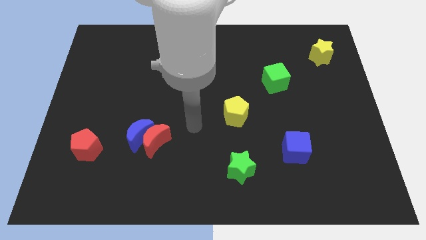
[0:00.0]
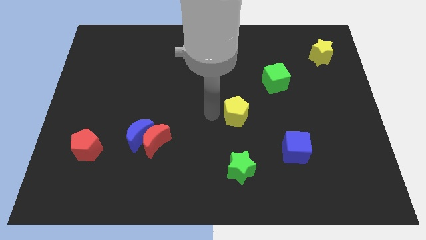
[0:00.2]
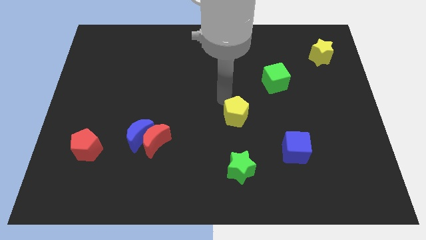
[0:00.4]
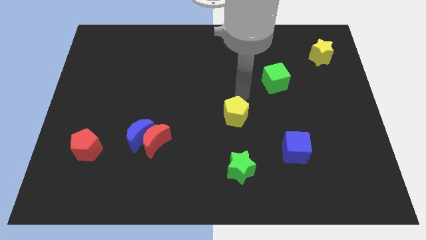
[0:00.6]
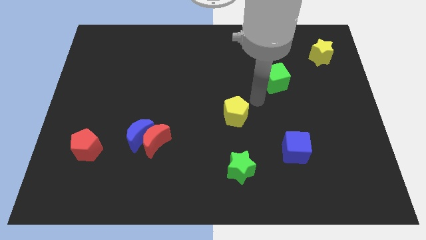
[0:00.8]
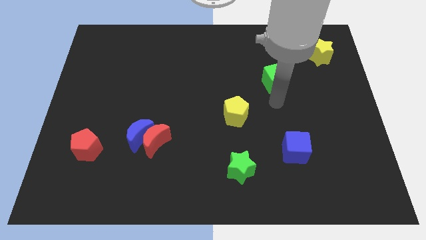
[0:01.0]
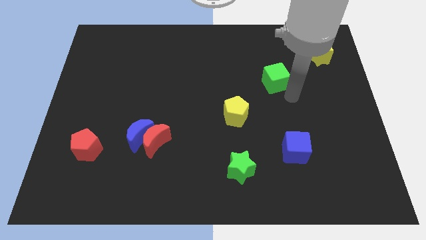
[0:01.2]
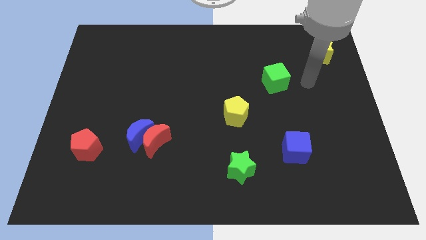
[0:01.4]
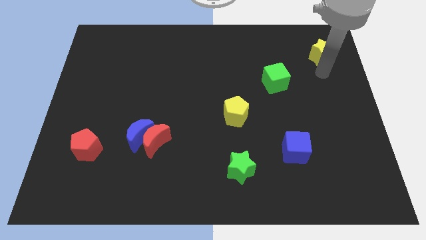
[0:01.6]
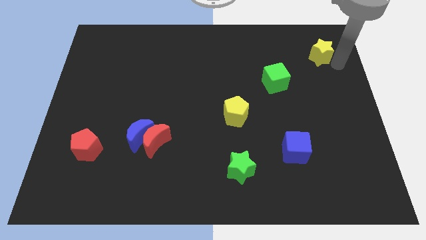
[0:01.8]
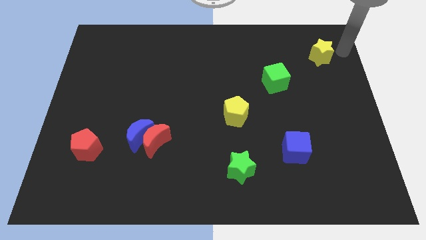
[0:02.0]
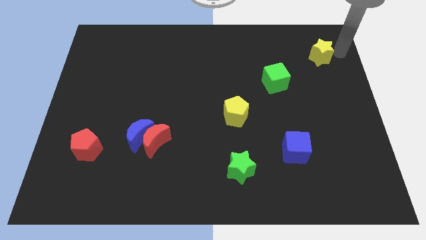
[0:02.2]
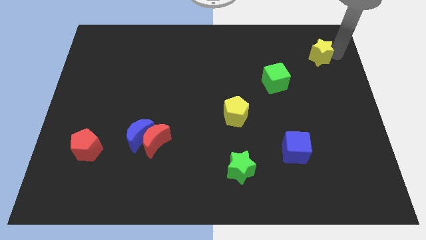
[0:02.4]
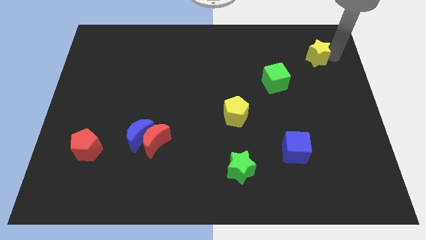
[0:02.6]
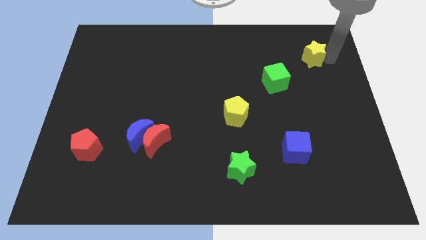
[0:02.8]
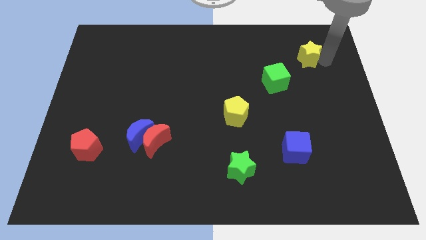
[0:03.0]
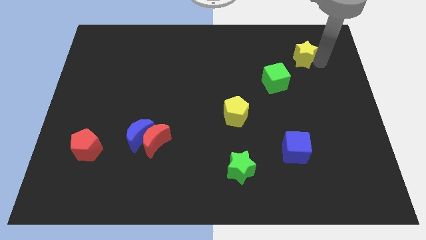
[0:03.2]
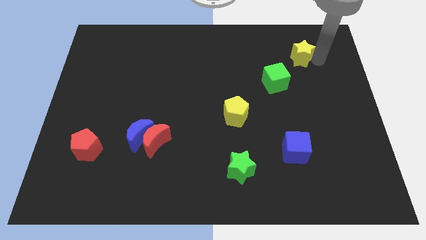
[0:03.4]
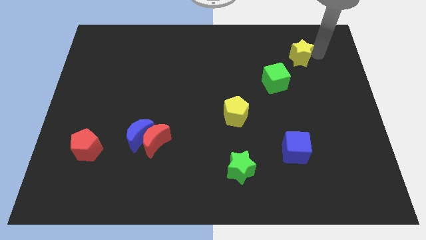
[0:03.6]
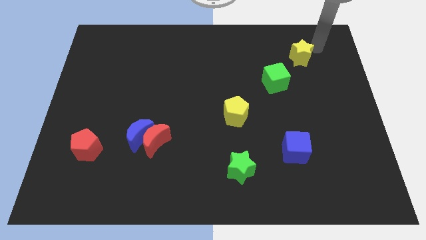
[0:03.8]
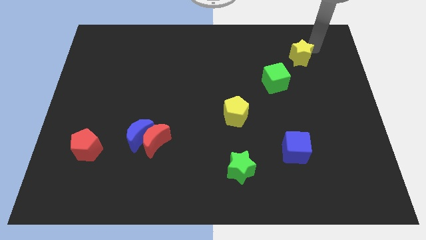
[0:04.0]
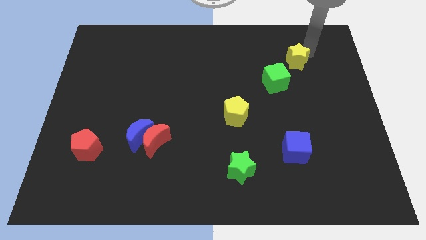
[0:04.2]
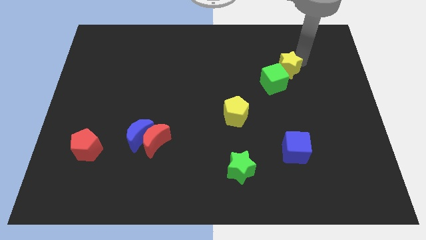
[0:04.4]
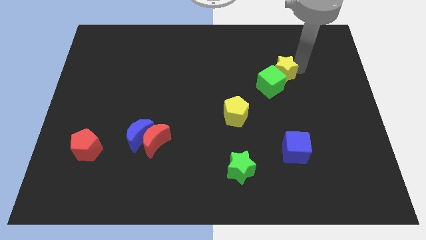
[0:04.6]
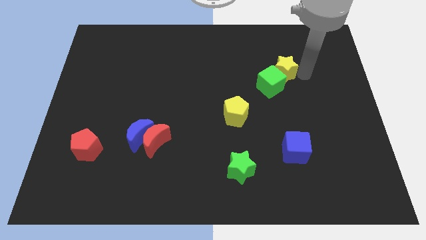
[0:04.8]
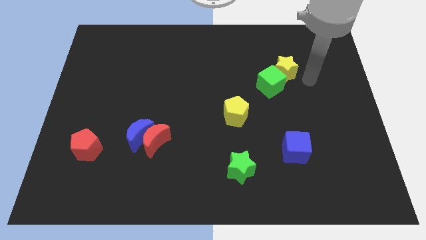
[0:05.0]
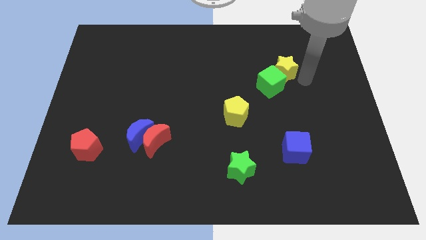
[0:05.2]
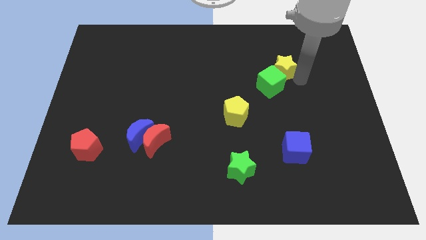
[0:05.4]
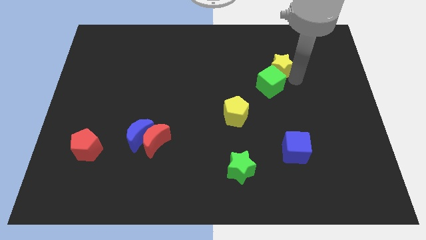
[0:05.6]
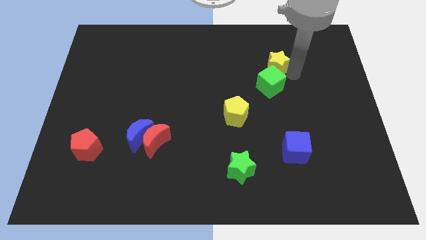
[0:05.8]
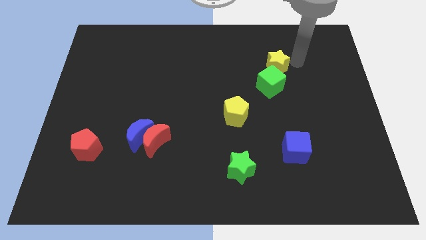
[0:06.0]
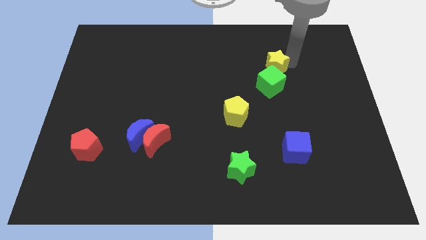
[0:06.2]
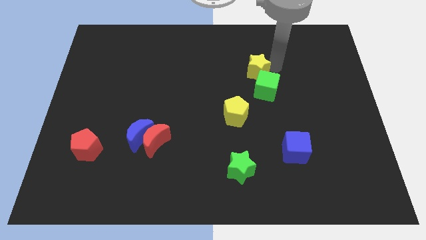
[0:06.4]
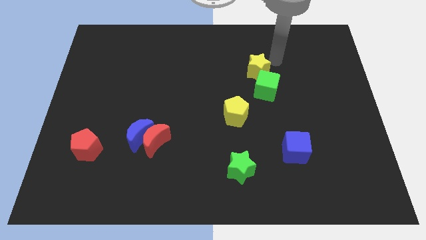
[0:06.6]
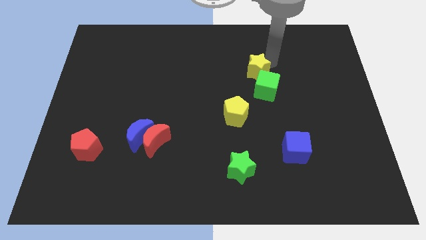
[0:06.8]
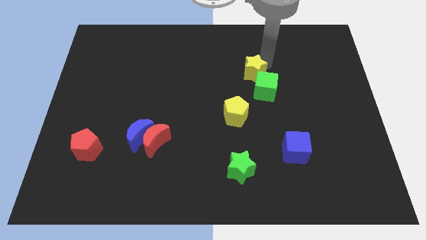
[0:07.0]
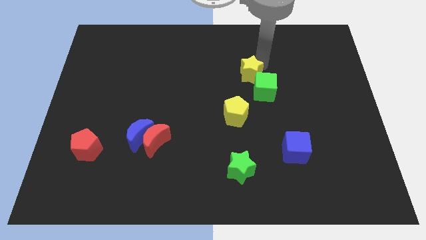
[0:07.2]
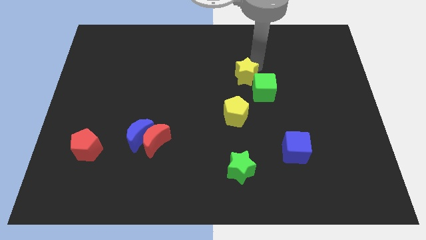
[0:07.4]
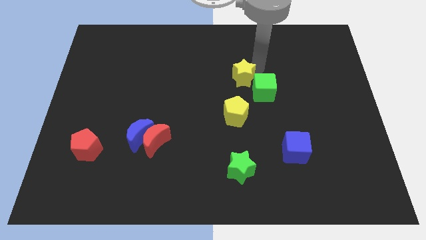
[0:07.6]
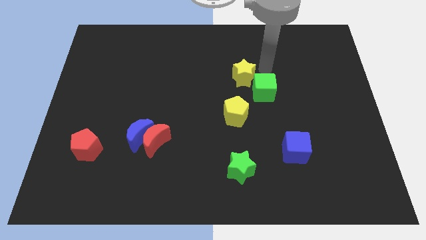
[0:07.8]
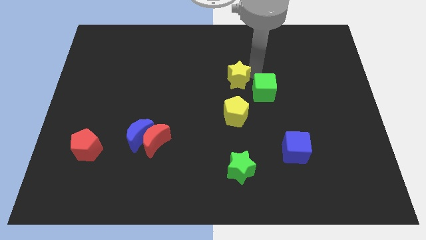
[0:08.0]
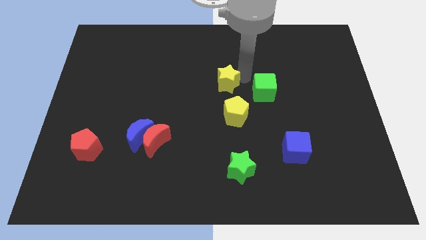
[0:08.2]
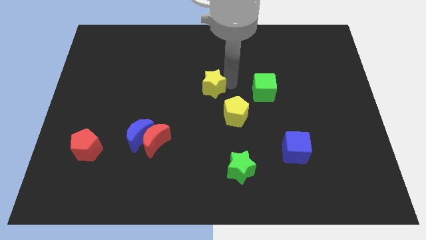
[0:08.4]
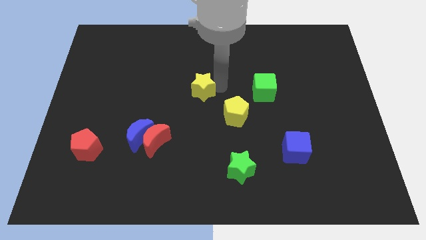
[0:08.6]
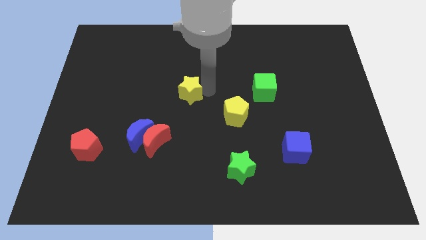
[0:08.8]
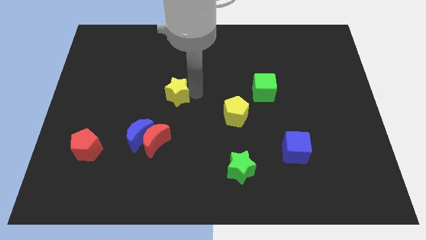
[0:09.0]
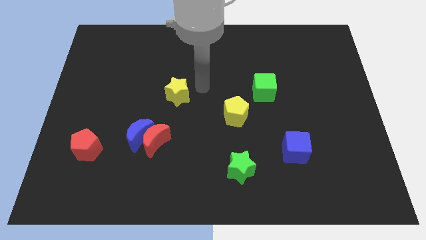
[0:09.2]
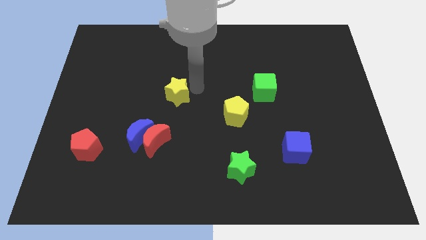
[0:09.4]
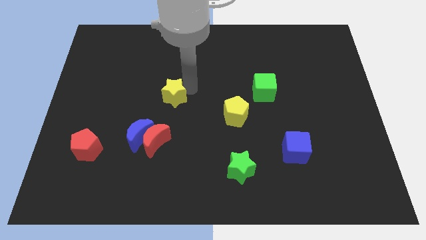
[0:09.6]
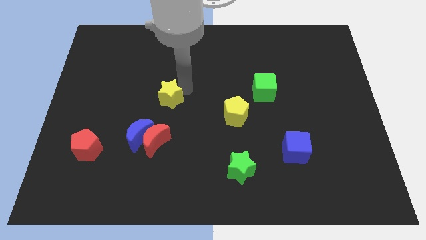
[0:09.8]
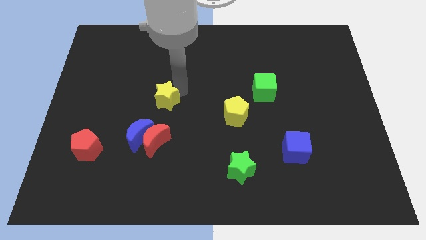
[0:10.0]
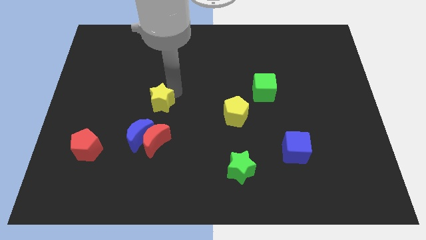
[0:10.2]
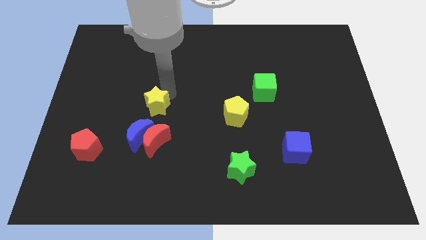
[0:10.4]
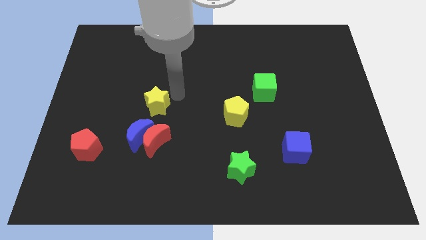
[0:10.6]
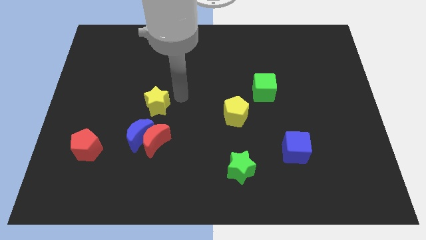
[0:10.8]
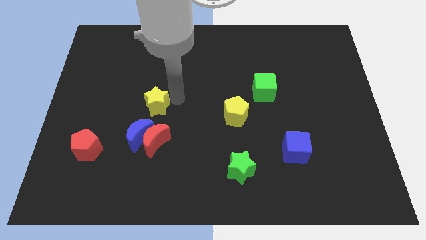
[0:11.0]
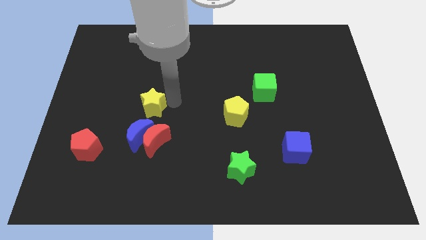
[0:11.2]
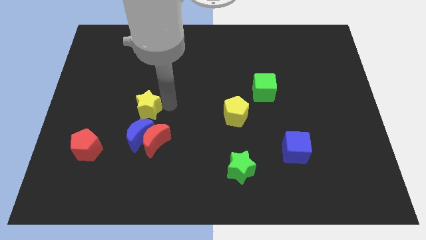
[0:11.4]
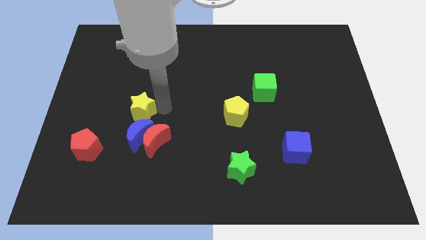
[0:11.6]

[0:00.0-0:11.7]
put the yellow star diagonally up and to the left of the blue moon

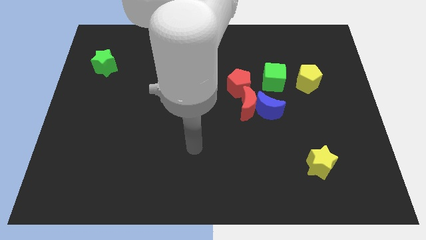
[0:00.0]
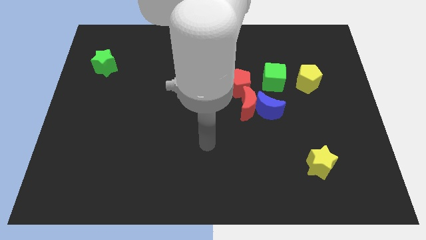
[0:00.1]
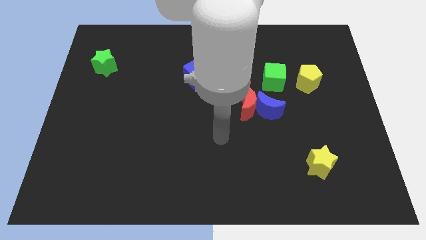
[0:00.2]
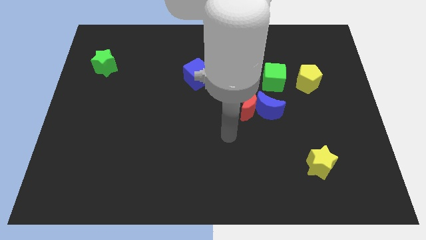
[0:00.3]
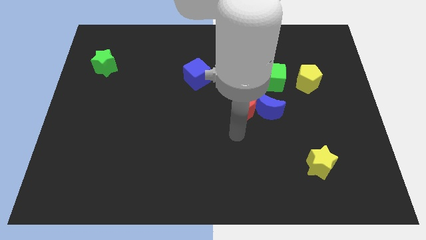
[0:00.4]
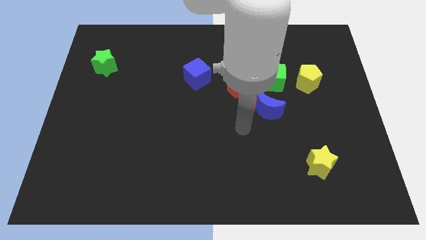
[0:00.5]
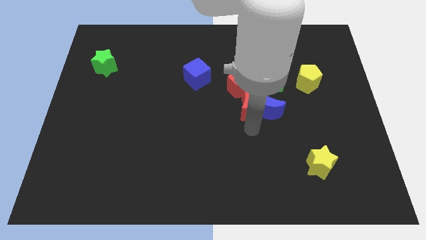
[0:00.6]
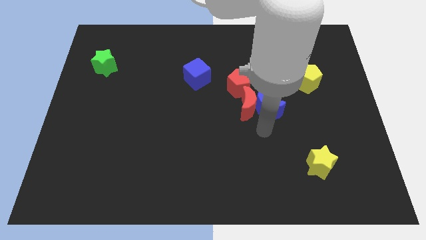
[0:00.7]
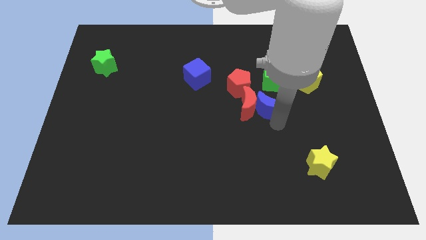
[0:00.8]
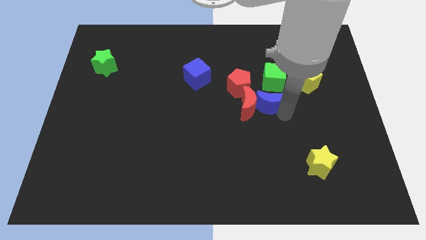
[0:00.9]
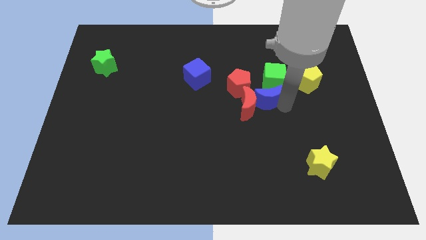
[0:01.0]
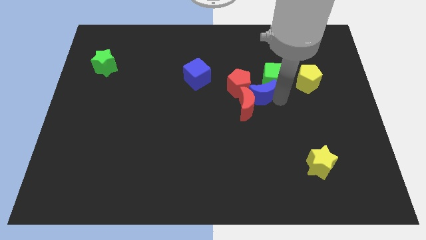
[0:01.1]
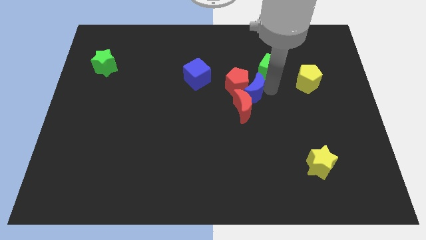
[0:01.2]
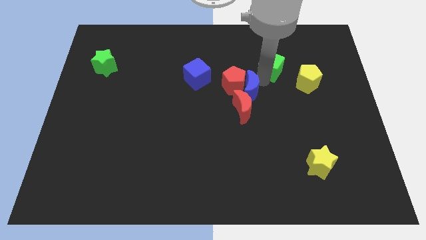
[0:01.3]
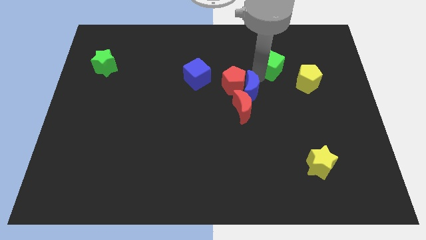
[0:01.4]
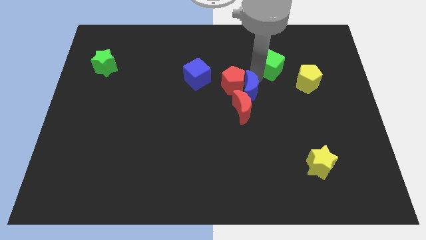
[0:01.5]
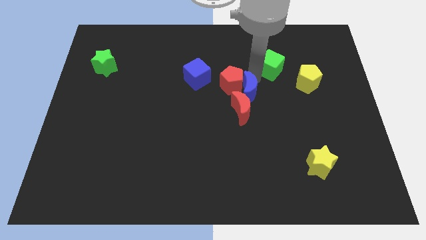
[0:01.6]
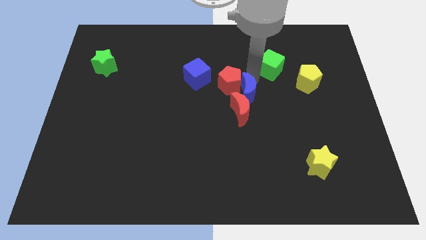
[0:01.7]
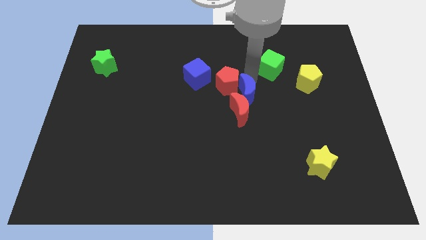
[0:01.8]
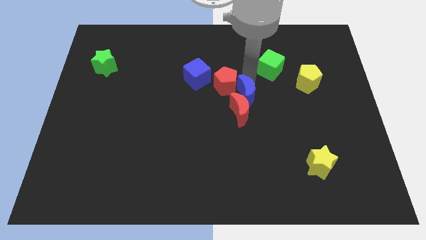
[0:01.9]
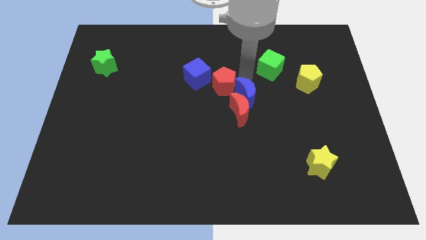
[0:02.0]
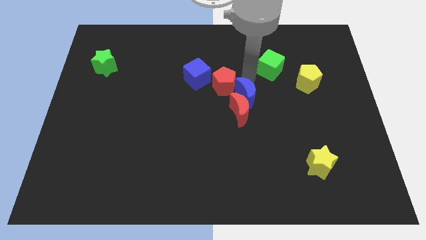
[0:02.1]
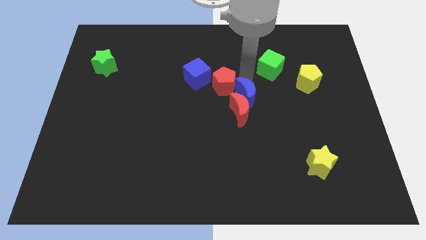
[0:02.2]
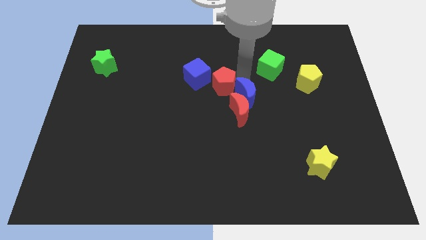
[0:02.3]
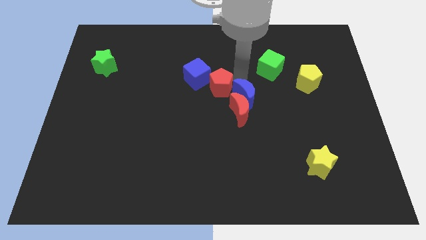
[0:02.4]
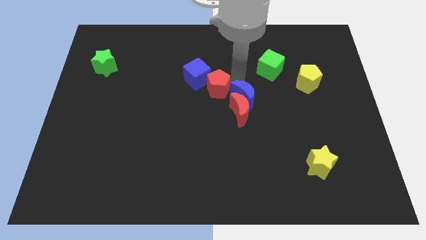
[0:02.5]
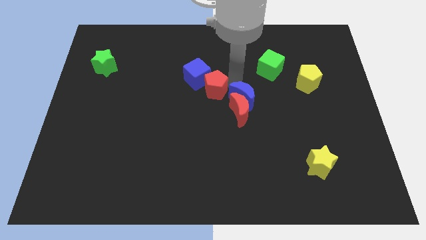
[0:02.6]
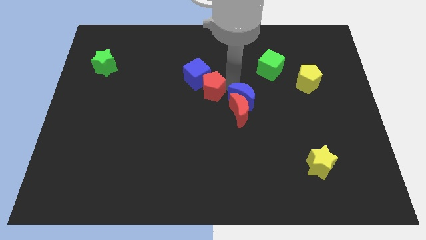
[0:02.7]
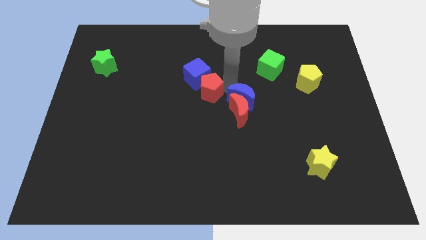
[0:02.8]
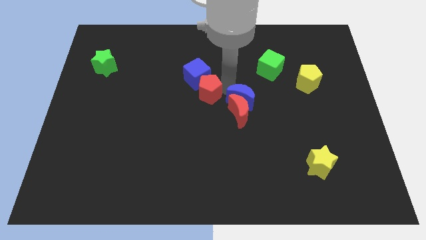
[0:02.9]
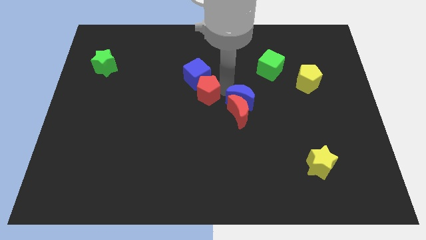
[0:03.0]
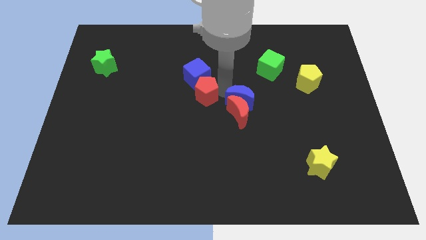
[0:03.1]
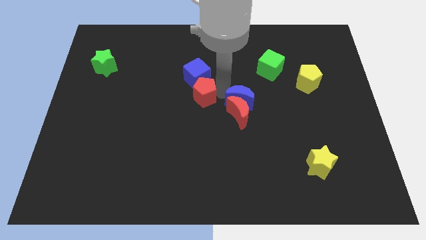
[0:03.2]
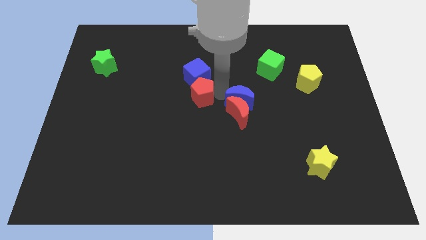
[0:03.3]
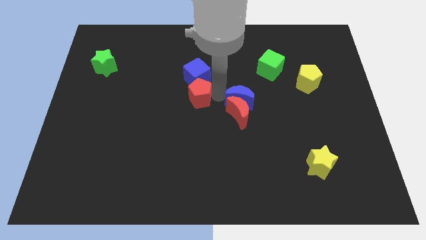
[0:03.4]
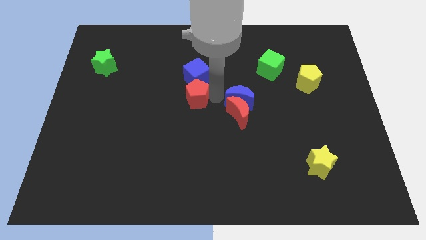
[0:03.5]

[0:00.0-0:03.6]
slide the red pentagon diagonally down and to the left of the blue cube
